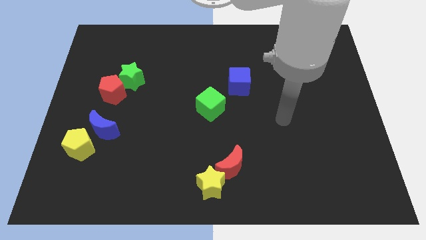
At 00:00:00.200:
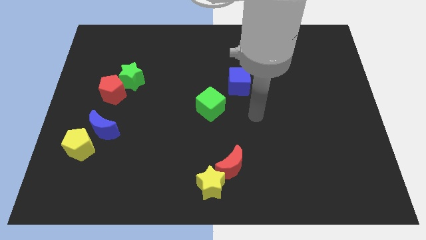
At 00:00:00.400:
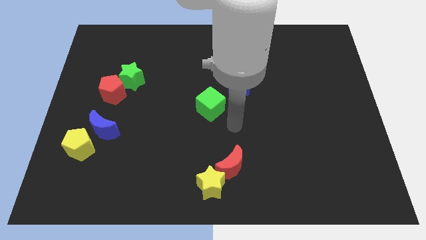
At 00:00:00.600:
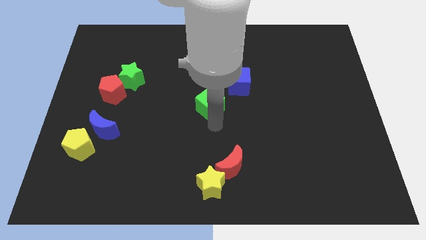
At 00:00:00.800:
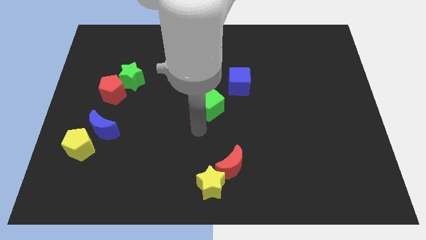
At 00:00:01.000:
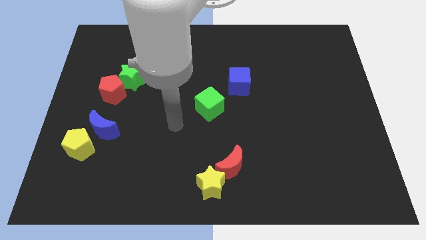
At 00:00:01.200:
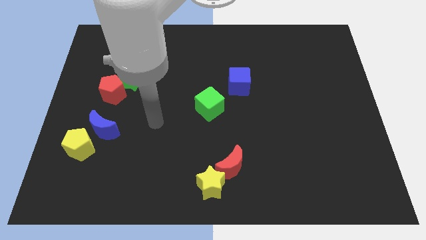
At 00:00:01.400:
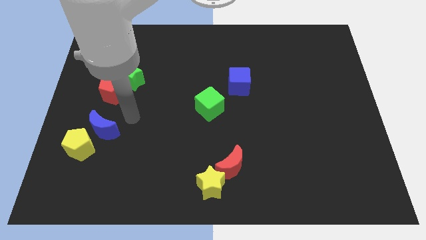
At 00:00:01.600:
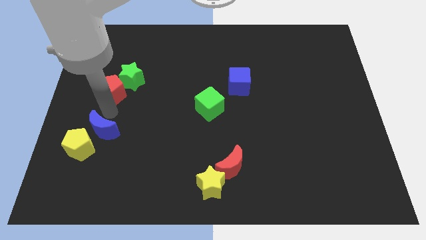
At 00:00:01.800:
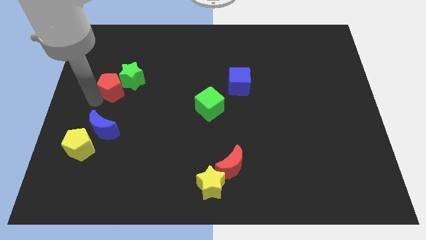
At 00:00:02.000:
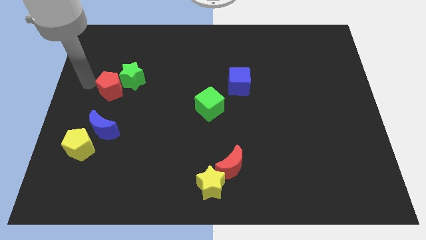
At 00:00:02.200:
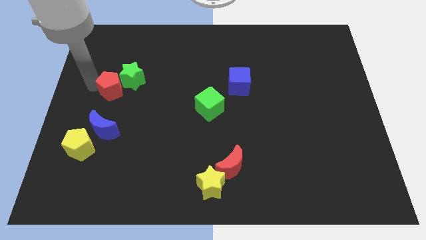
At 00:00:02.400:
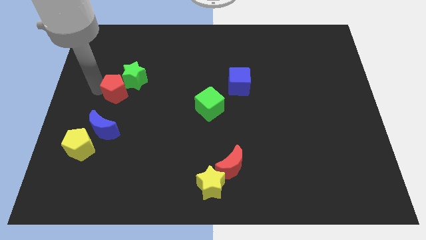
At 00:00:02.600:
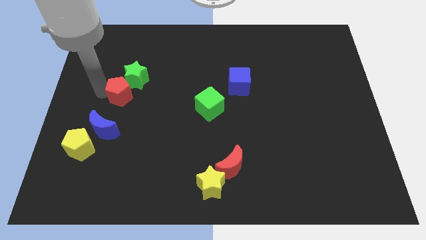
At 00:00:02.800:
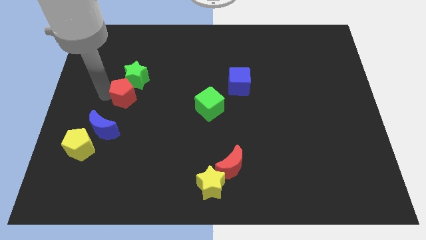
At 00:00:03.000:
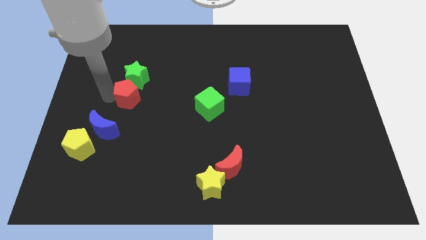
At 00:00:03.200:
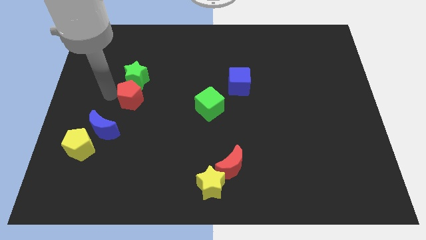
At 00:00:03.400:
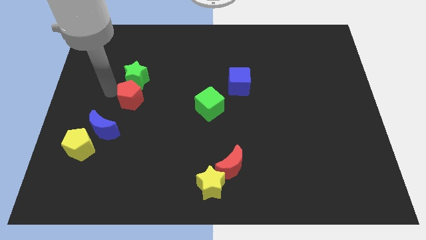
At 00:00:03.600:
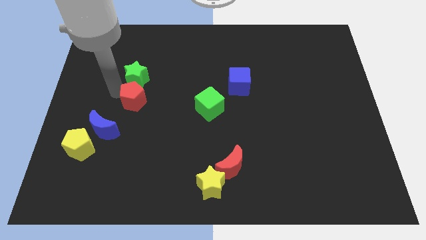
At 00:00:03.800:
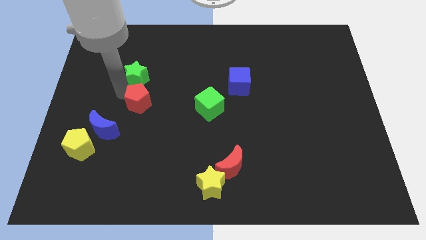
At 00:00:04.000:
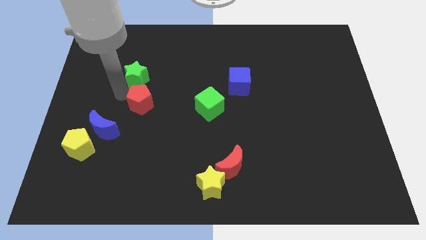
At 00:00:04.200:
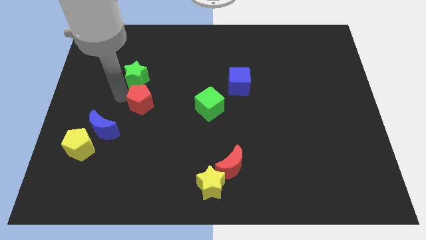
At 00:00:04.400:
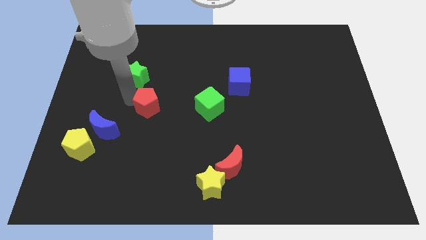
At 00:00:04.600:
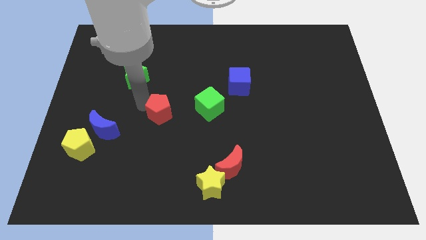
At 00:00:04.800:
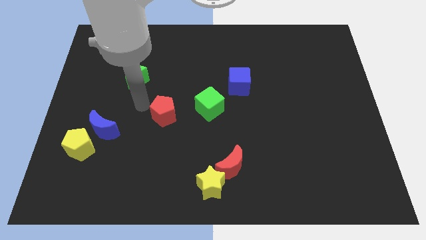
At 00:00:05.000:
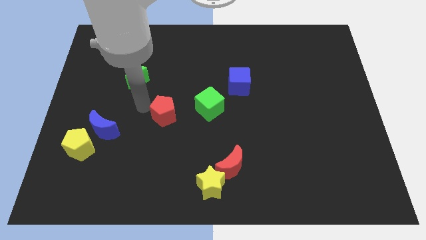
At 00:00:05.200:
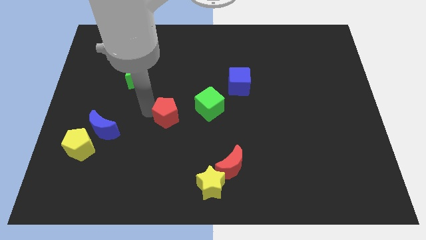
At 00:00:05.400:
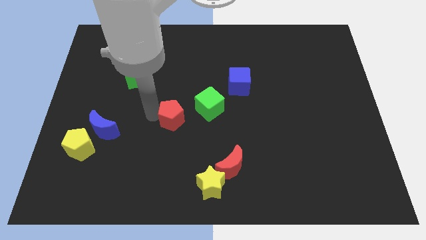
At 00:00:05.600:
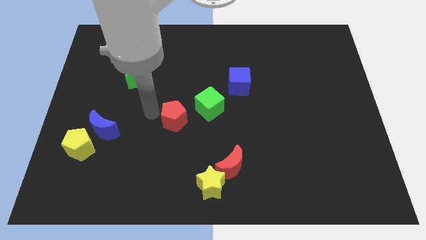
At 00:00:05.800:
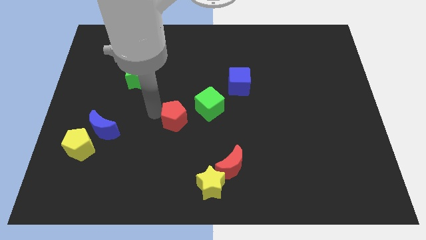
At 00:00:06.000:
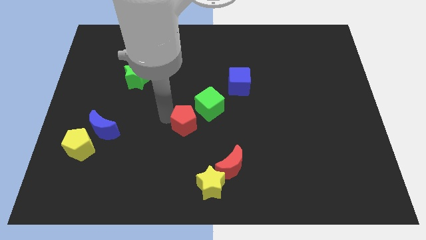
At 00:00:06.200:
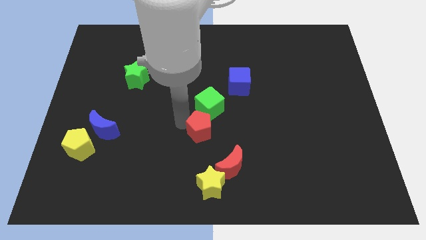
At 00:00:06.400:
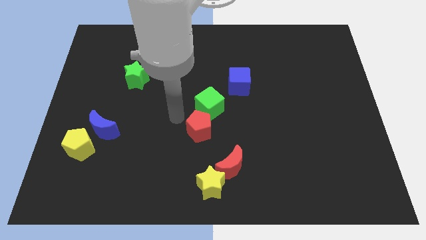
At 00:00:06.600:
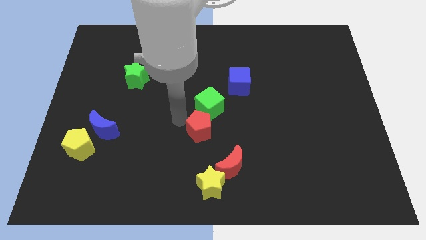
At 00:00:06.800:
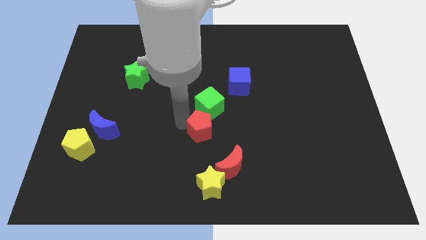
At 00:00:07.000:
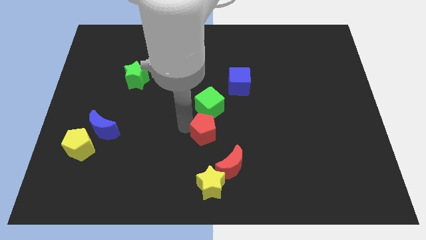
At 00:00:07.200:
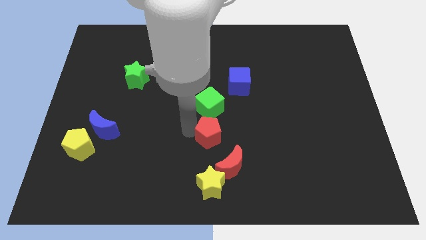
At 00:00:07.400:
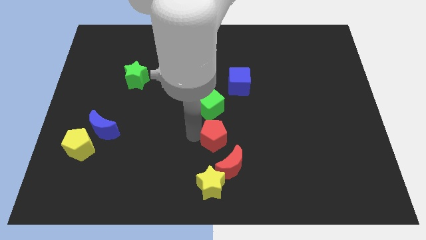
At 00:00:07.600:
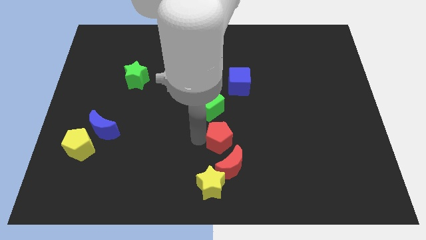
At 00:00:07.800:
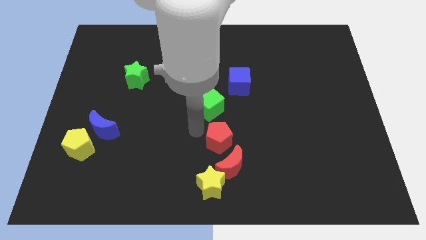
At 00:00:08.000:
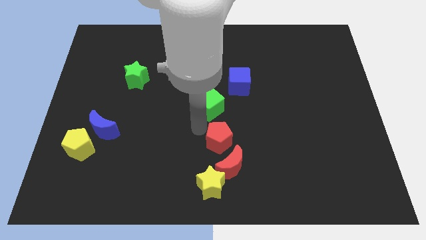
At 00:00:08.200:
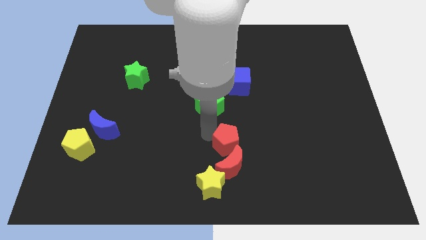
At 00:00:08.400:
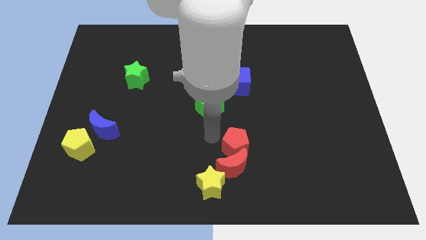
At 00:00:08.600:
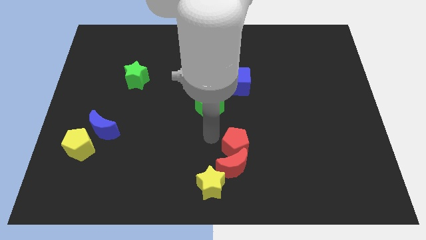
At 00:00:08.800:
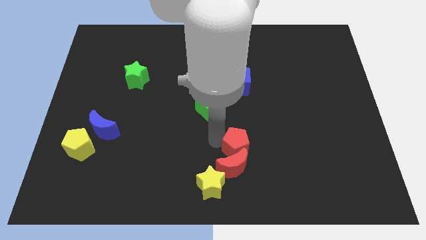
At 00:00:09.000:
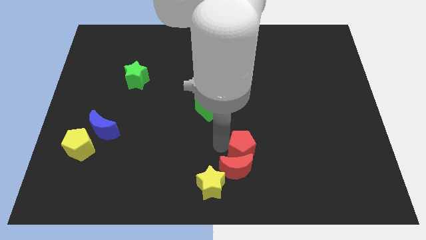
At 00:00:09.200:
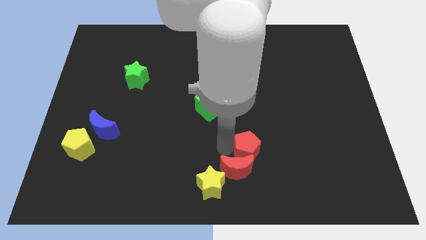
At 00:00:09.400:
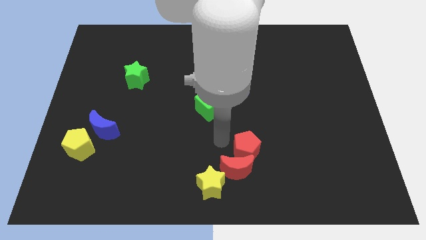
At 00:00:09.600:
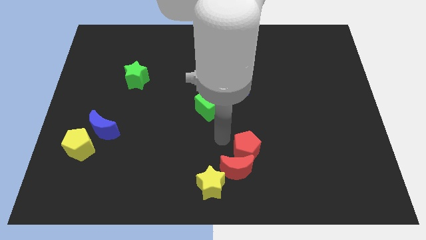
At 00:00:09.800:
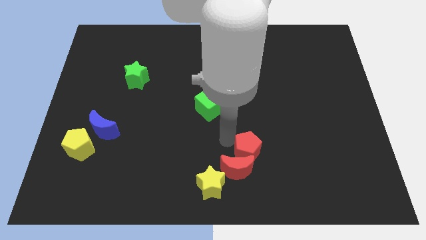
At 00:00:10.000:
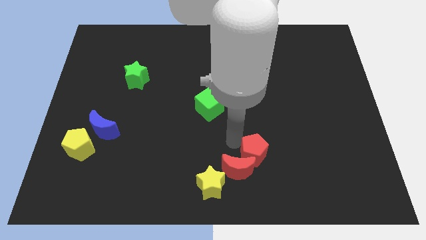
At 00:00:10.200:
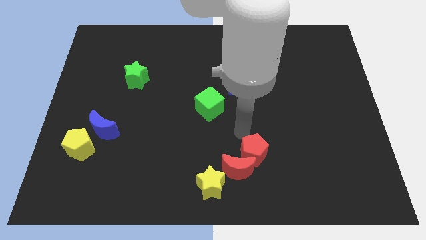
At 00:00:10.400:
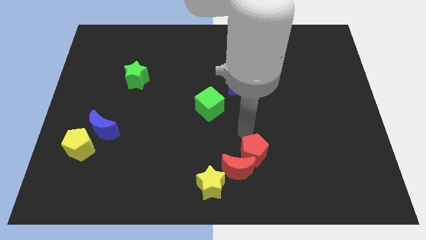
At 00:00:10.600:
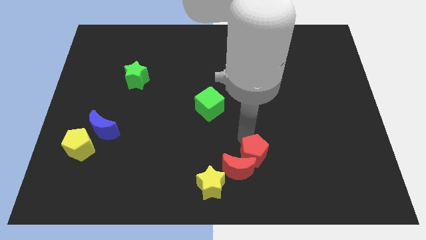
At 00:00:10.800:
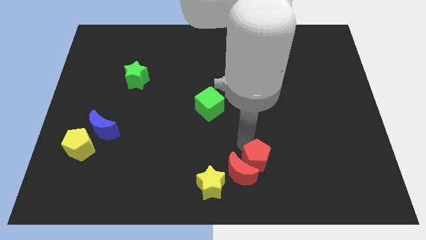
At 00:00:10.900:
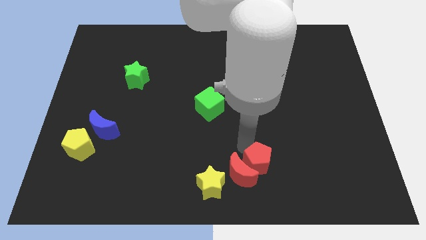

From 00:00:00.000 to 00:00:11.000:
put the red pentagon to the right side of the yellow star

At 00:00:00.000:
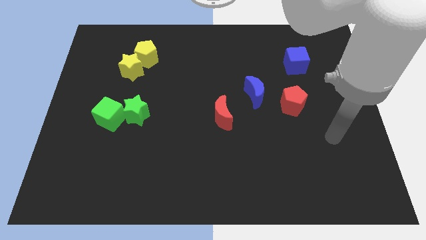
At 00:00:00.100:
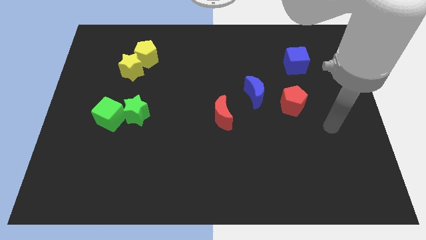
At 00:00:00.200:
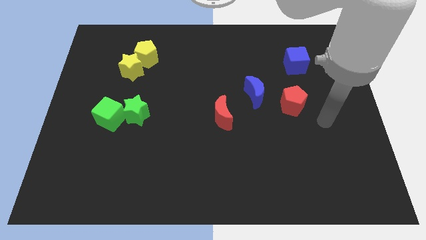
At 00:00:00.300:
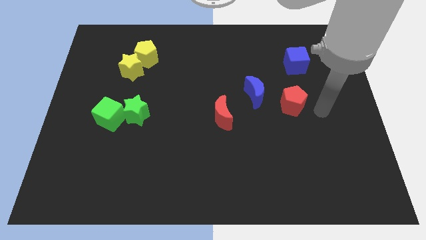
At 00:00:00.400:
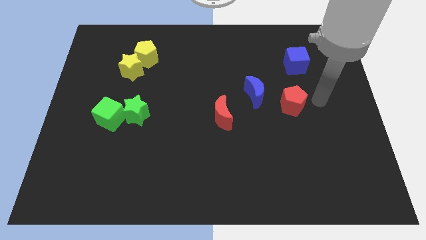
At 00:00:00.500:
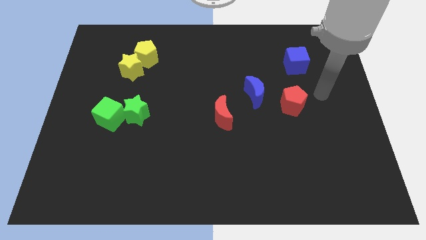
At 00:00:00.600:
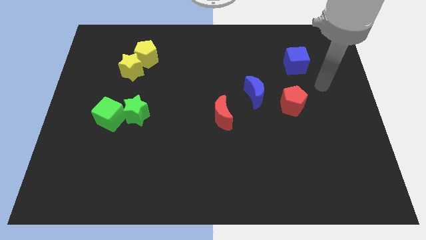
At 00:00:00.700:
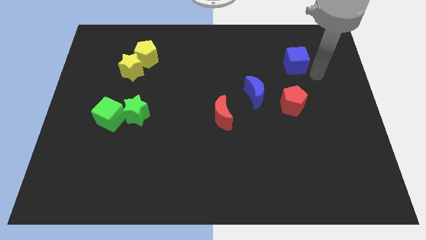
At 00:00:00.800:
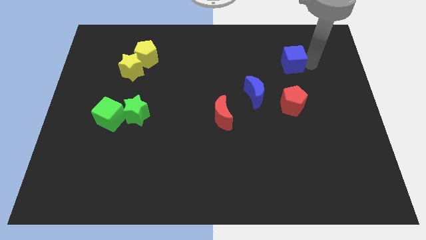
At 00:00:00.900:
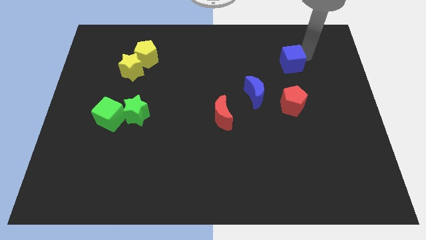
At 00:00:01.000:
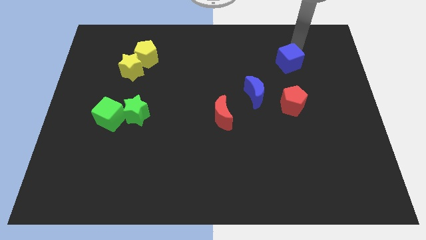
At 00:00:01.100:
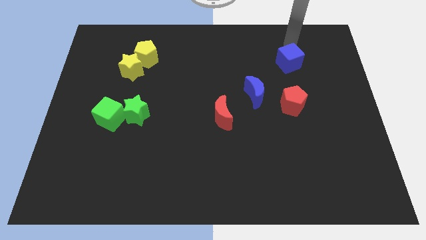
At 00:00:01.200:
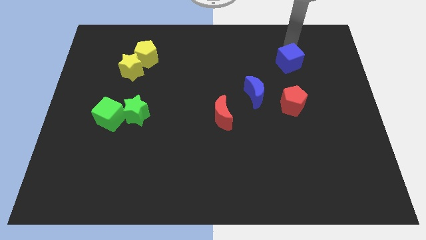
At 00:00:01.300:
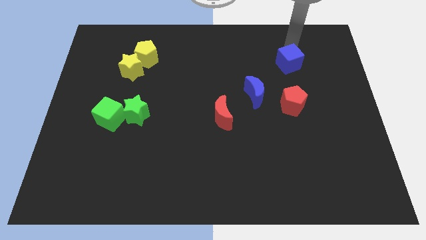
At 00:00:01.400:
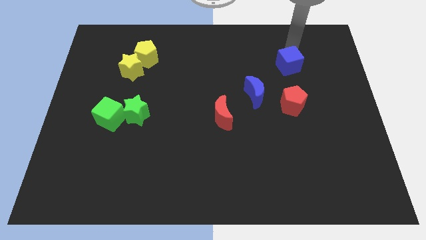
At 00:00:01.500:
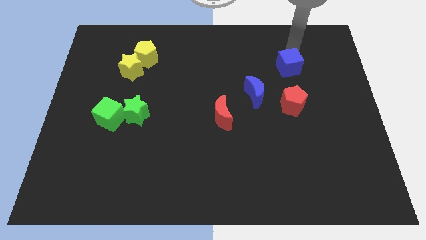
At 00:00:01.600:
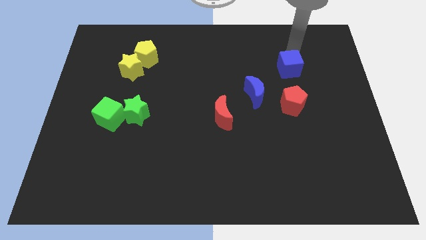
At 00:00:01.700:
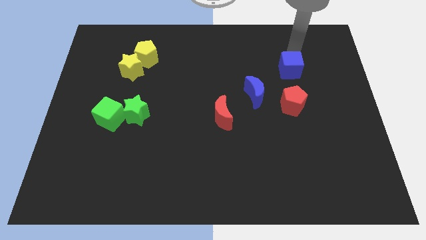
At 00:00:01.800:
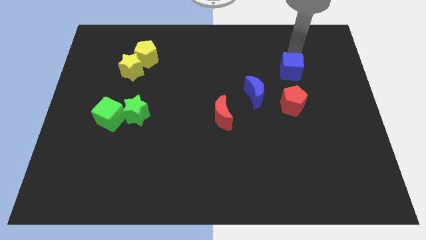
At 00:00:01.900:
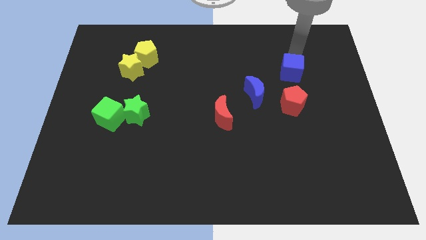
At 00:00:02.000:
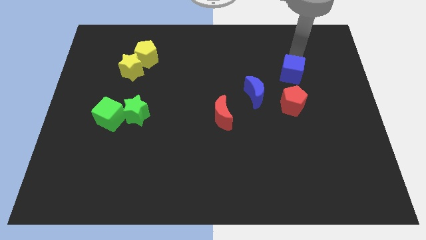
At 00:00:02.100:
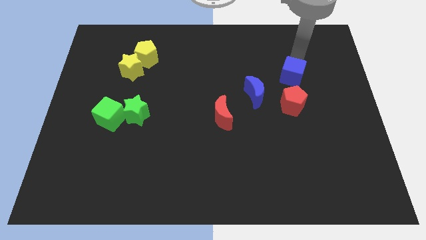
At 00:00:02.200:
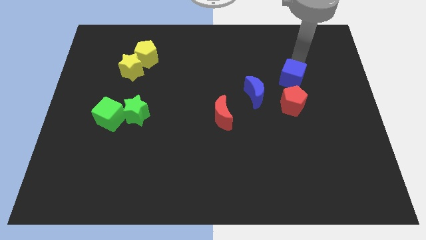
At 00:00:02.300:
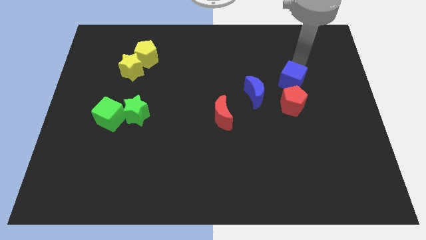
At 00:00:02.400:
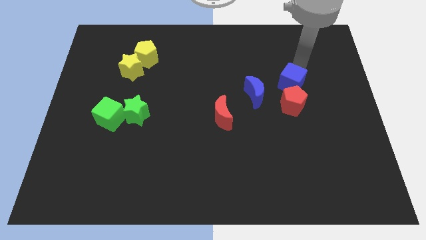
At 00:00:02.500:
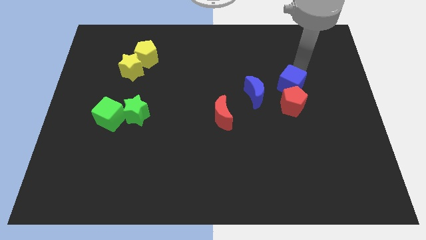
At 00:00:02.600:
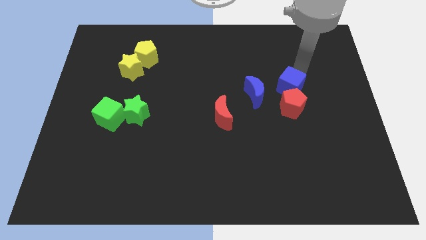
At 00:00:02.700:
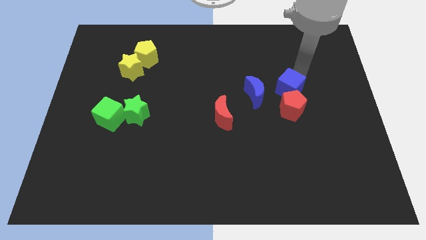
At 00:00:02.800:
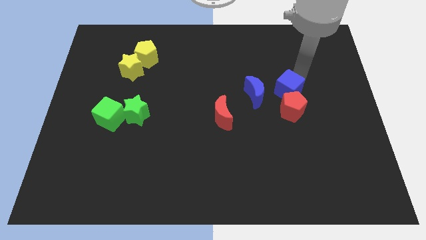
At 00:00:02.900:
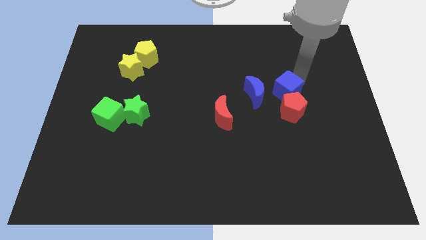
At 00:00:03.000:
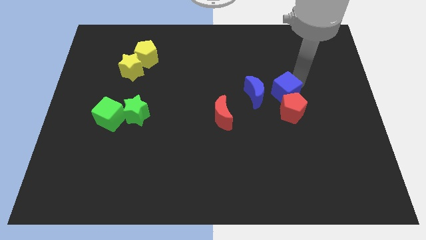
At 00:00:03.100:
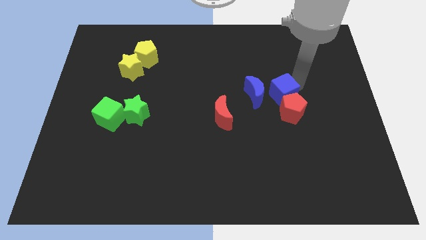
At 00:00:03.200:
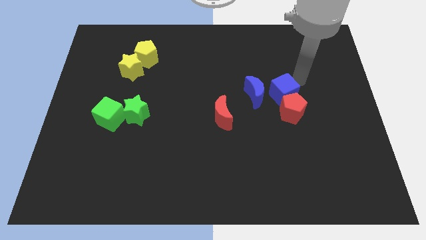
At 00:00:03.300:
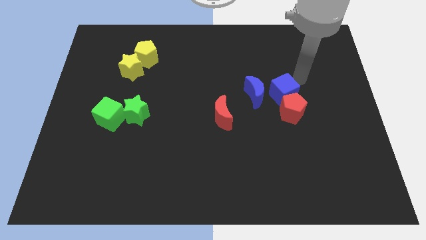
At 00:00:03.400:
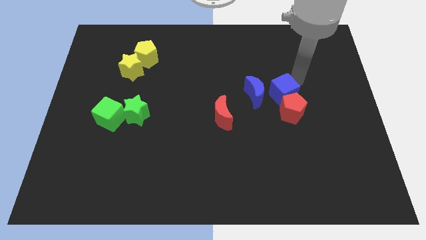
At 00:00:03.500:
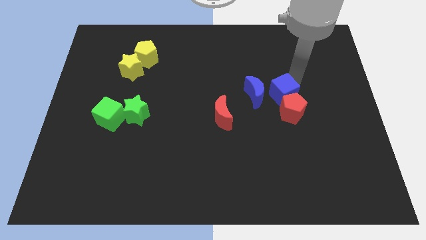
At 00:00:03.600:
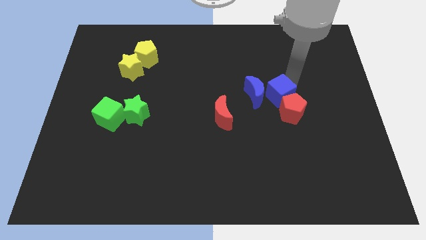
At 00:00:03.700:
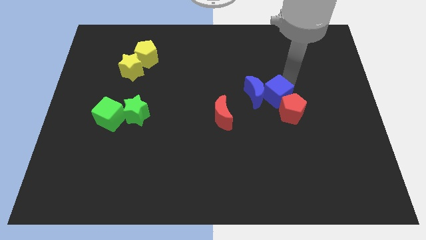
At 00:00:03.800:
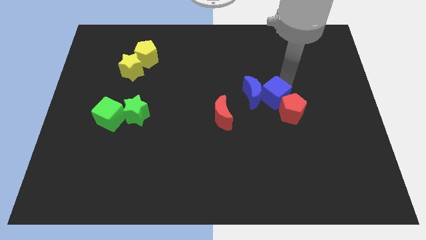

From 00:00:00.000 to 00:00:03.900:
slide the blue cube left of the red pentagon
